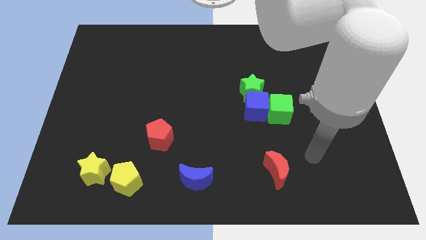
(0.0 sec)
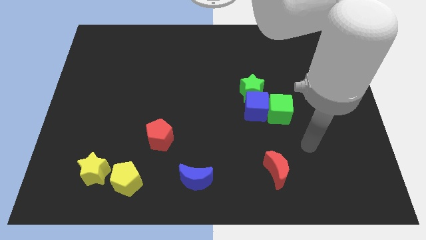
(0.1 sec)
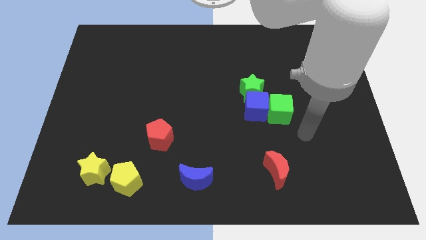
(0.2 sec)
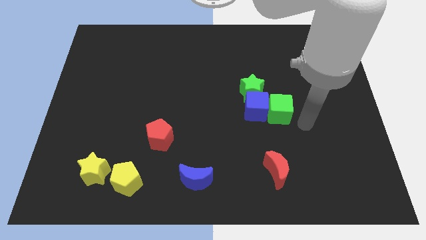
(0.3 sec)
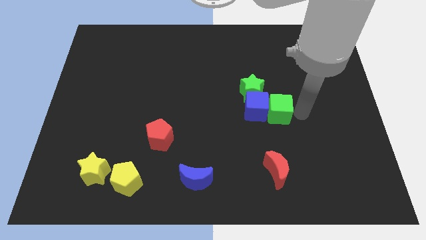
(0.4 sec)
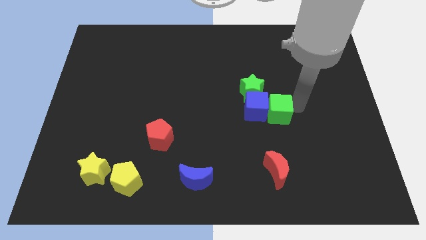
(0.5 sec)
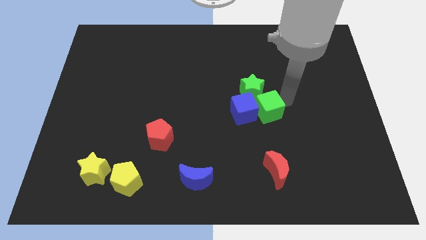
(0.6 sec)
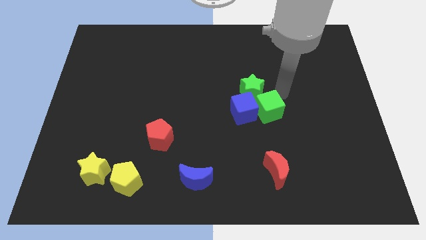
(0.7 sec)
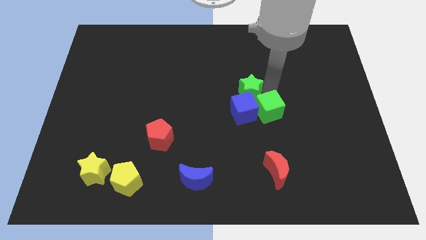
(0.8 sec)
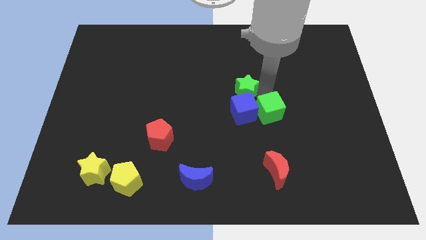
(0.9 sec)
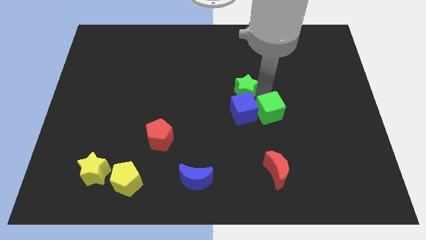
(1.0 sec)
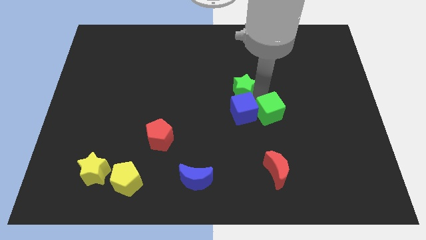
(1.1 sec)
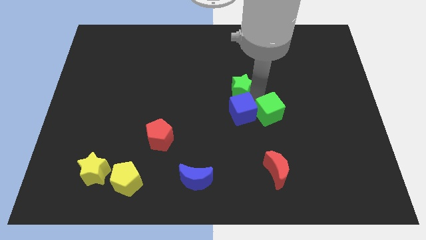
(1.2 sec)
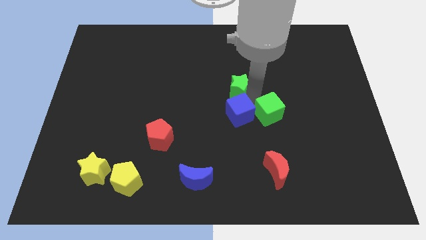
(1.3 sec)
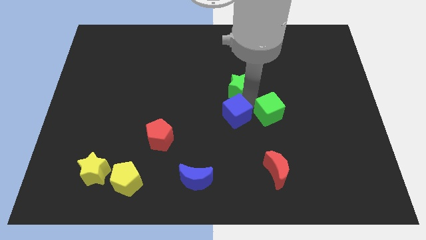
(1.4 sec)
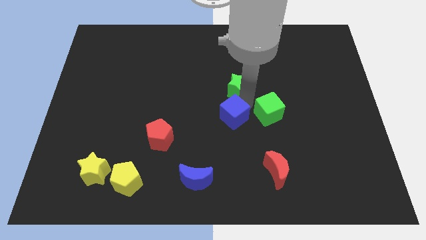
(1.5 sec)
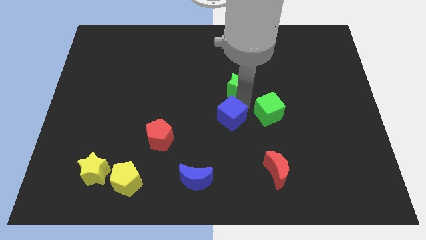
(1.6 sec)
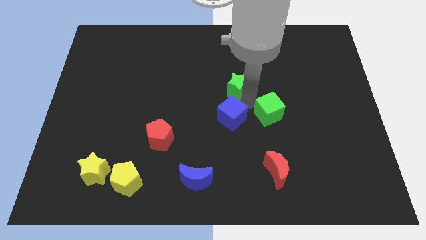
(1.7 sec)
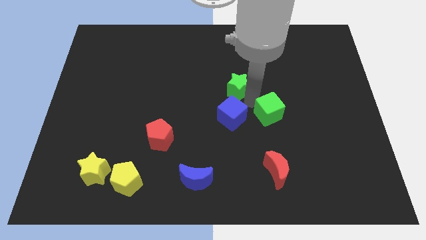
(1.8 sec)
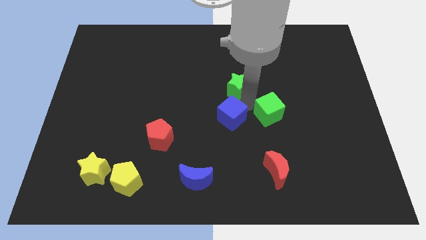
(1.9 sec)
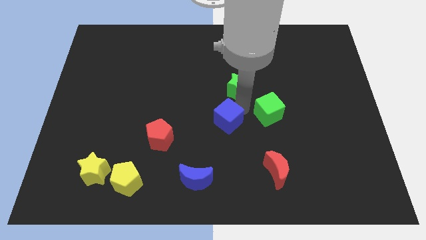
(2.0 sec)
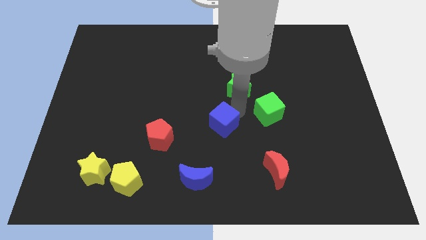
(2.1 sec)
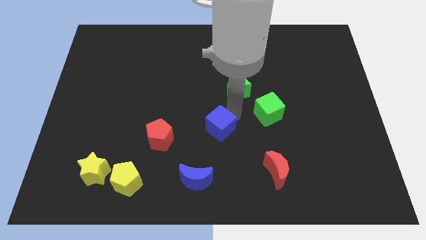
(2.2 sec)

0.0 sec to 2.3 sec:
separate the blue cube from the green cube and green star

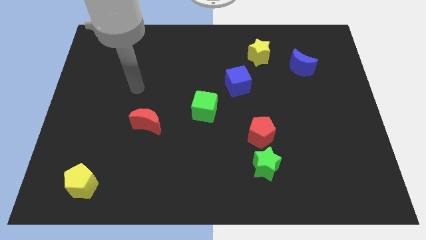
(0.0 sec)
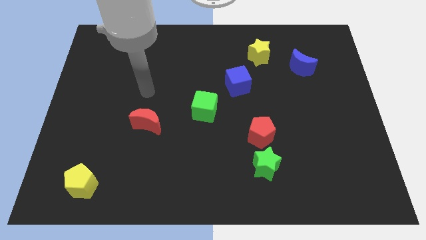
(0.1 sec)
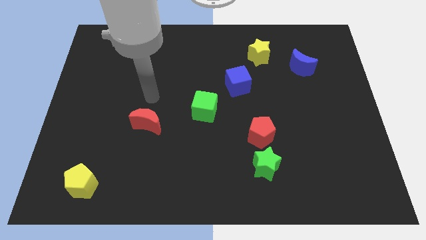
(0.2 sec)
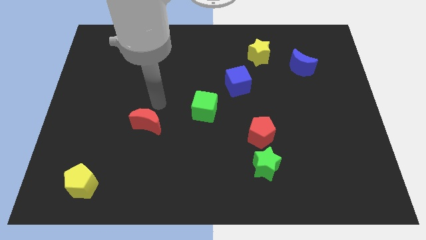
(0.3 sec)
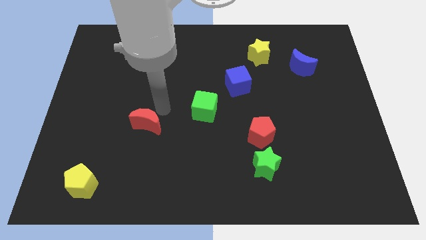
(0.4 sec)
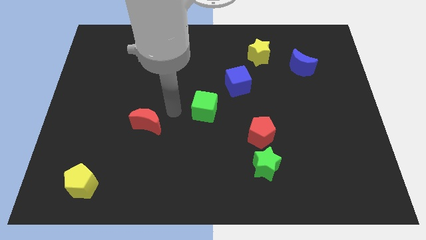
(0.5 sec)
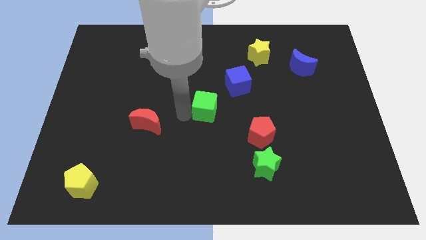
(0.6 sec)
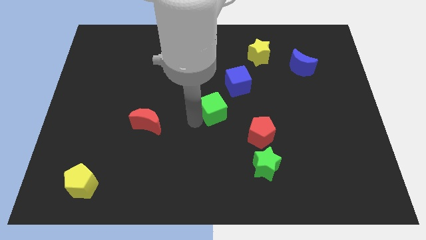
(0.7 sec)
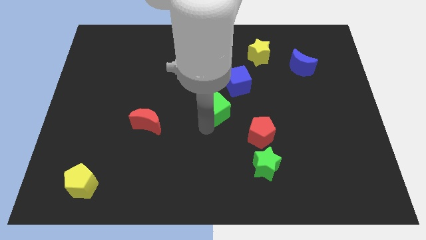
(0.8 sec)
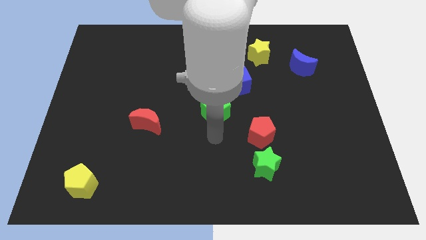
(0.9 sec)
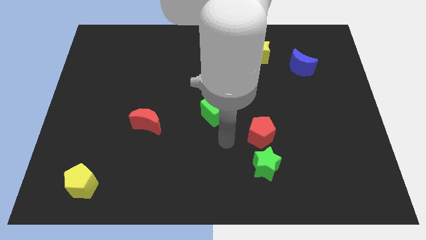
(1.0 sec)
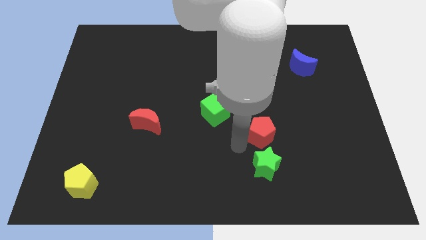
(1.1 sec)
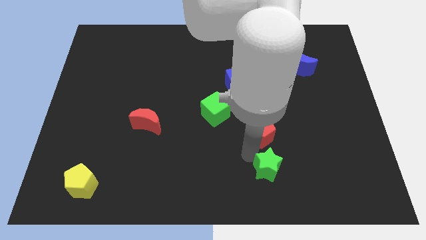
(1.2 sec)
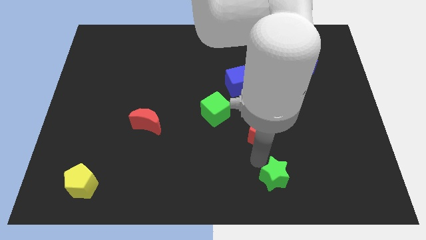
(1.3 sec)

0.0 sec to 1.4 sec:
separate the red pentagon from the green star

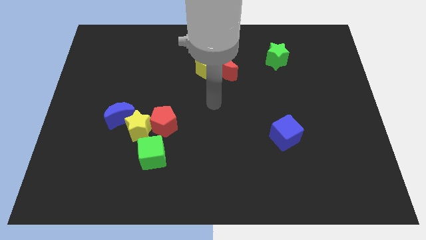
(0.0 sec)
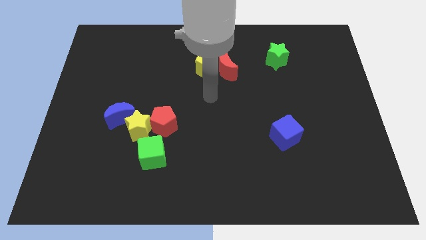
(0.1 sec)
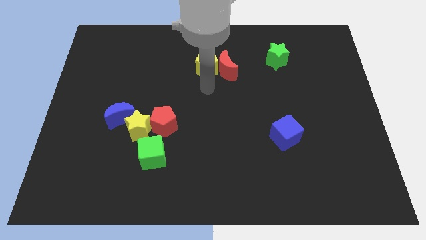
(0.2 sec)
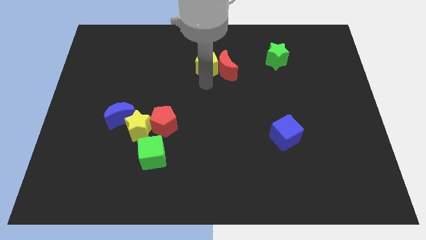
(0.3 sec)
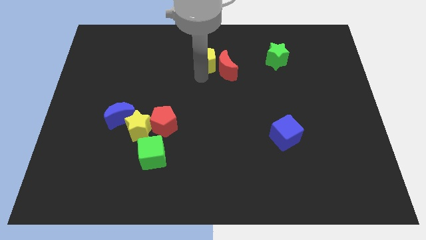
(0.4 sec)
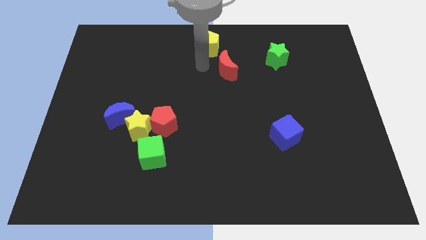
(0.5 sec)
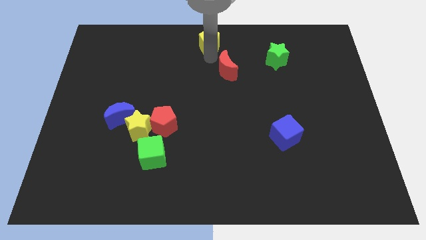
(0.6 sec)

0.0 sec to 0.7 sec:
move the red moon away from the yellow pentagon

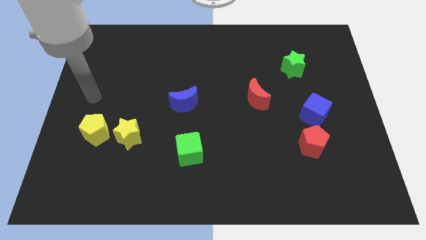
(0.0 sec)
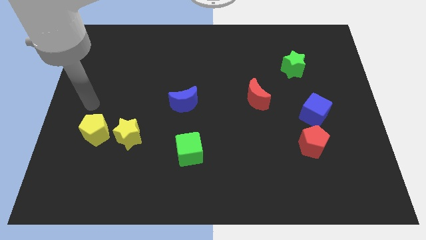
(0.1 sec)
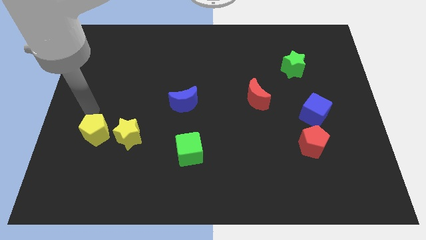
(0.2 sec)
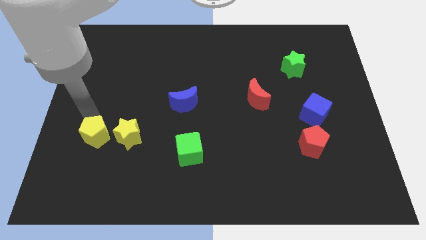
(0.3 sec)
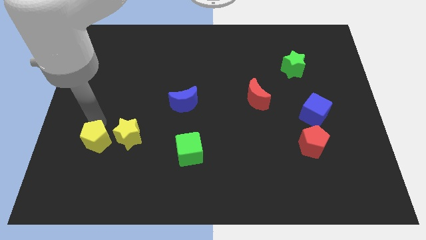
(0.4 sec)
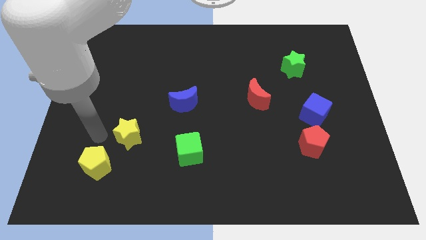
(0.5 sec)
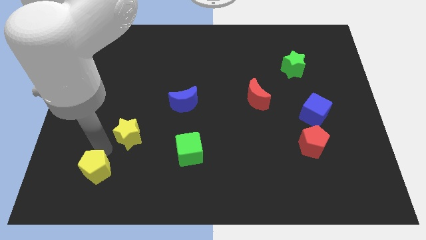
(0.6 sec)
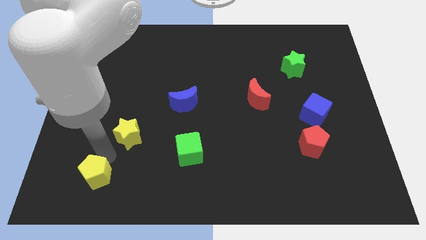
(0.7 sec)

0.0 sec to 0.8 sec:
separate the yellow star from the yellow pentagon

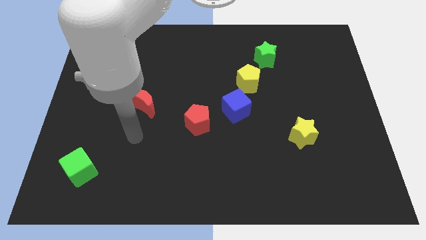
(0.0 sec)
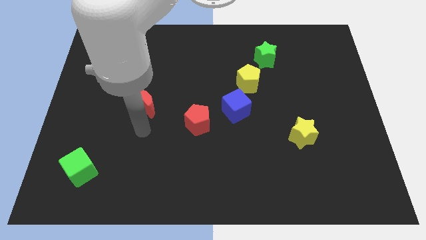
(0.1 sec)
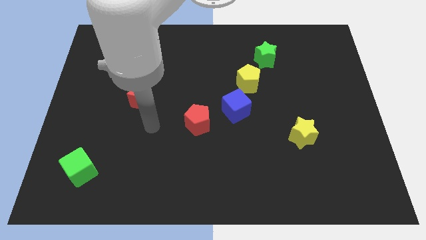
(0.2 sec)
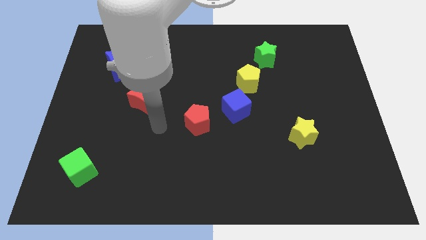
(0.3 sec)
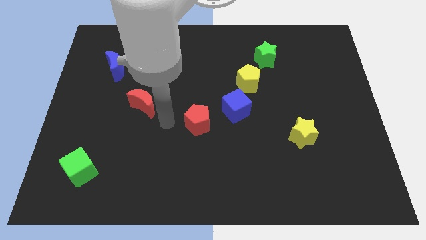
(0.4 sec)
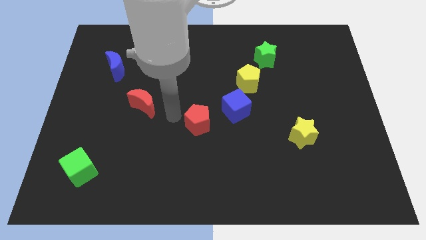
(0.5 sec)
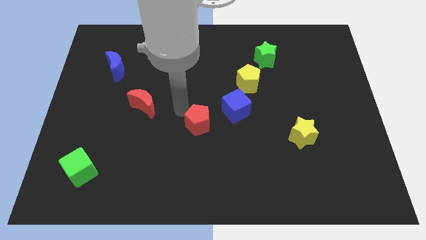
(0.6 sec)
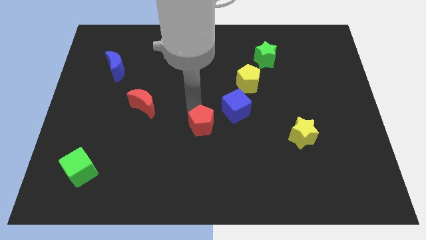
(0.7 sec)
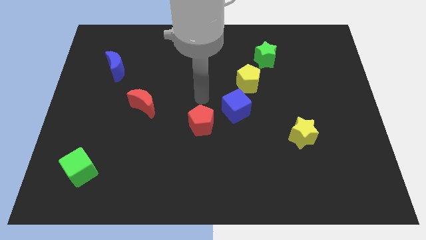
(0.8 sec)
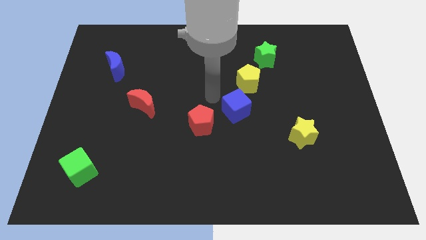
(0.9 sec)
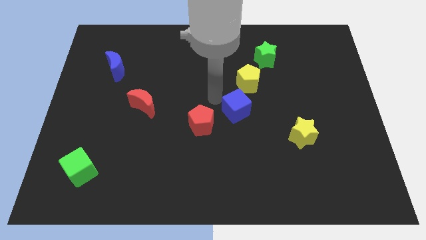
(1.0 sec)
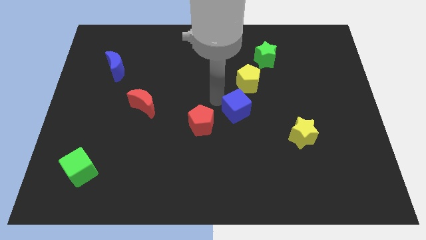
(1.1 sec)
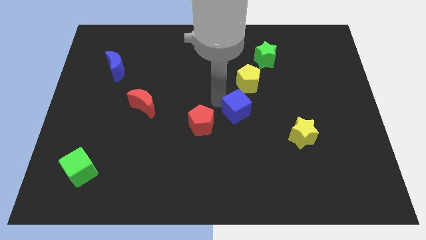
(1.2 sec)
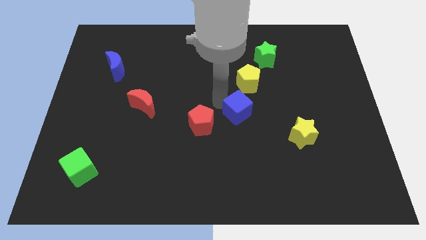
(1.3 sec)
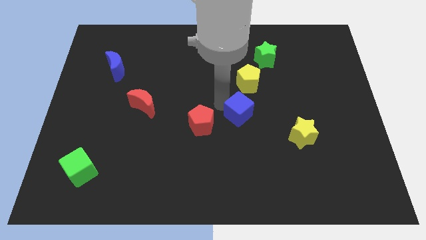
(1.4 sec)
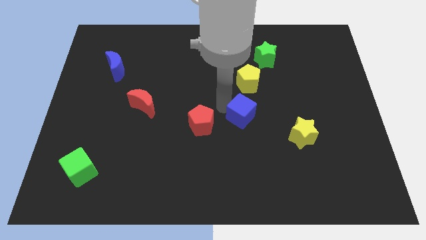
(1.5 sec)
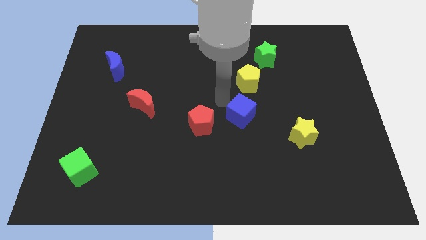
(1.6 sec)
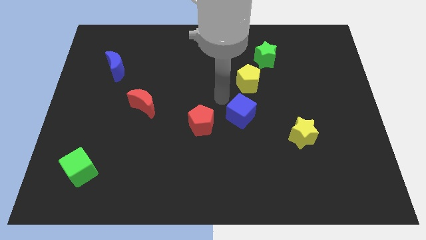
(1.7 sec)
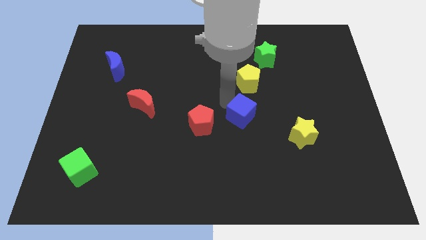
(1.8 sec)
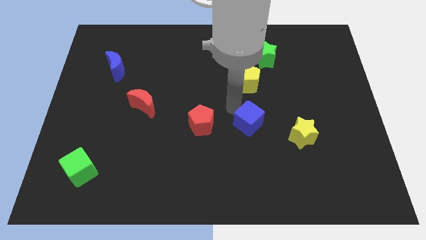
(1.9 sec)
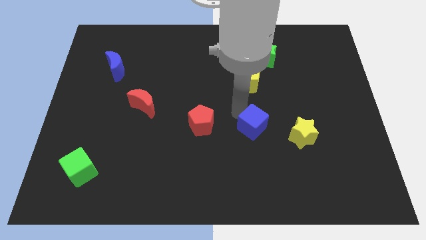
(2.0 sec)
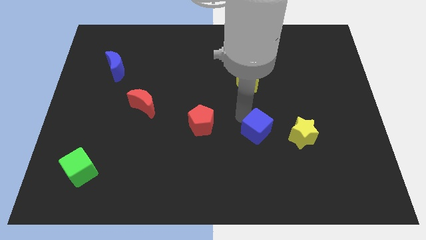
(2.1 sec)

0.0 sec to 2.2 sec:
separate the blue cube from the yellow pentagon and red pentagon

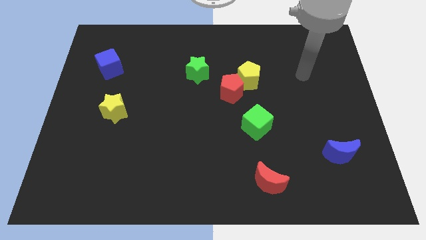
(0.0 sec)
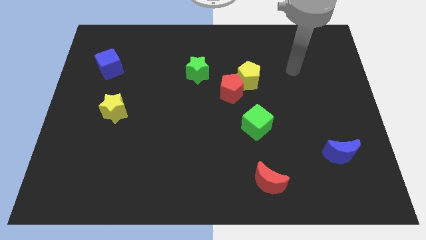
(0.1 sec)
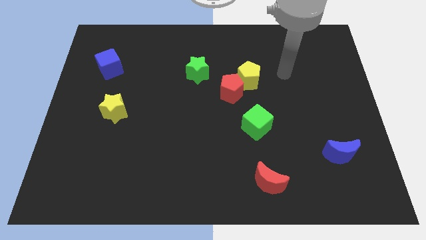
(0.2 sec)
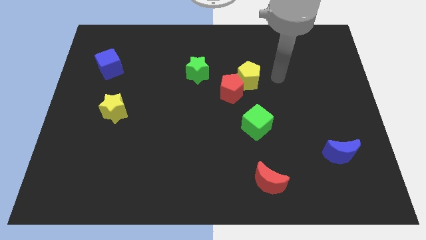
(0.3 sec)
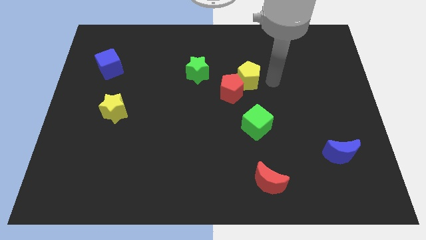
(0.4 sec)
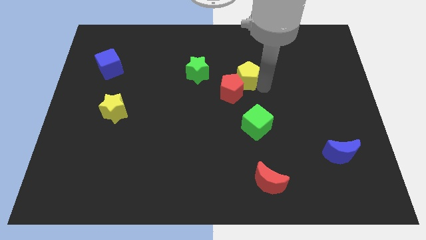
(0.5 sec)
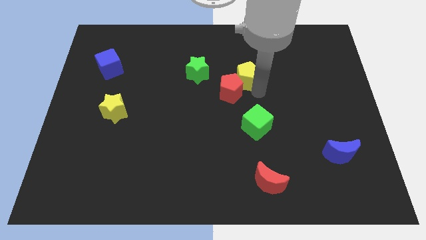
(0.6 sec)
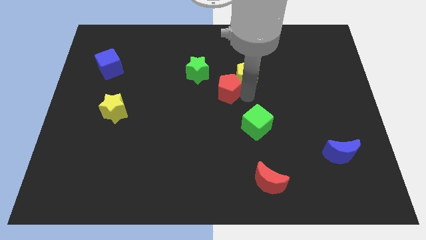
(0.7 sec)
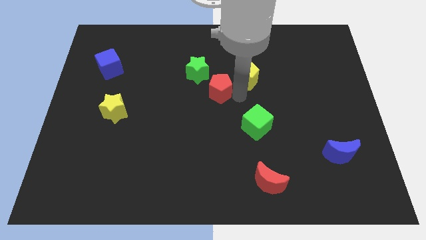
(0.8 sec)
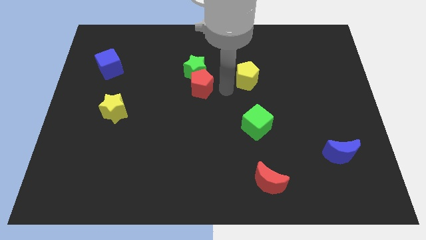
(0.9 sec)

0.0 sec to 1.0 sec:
move the yellow pentagon away from the red pentagon

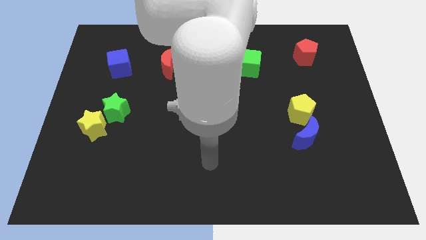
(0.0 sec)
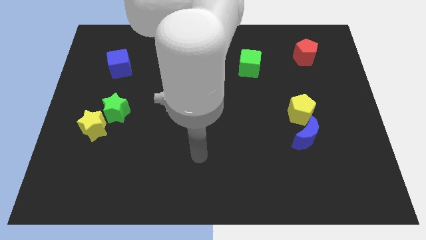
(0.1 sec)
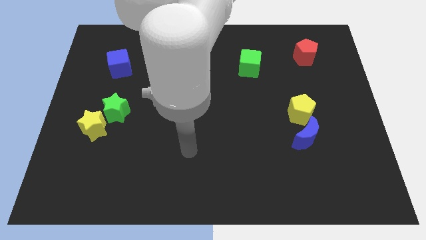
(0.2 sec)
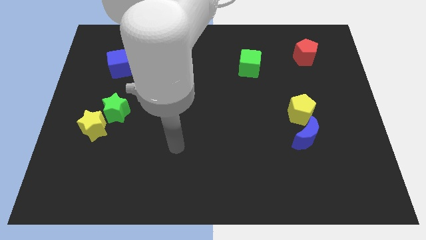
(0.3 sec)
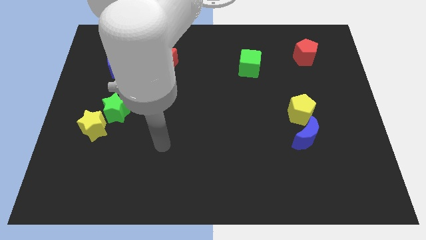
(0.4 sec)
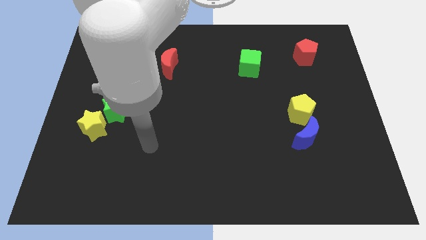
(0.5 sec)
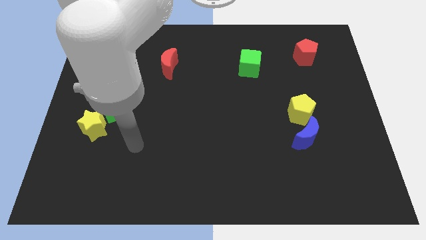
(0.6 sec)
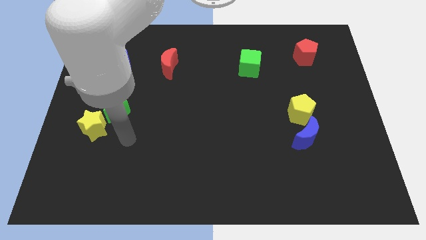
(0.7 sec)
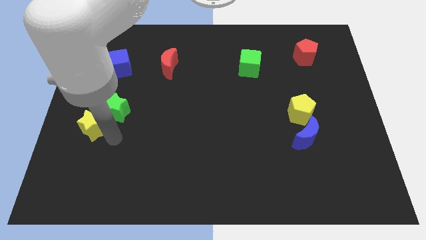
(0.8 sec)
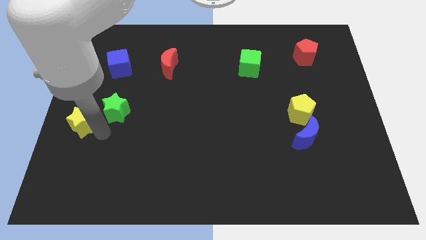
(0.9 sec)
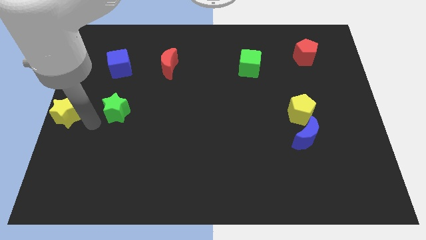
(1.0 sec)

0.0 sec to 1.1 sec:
move the green star away from the yellow star
